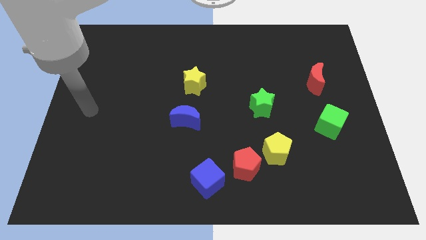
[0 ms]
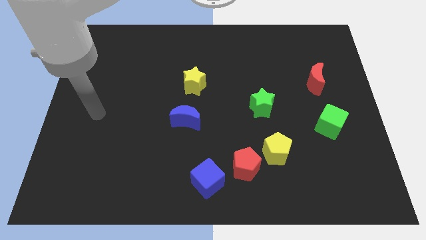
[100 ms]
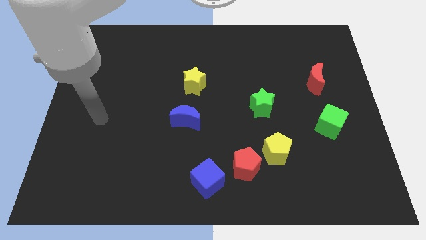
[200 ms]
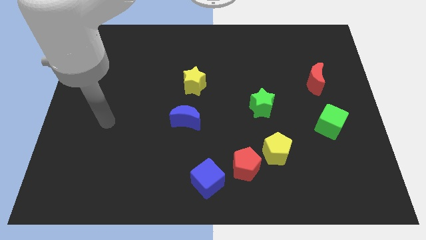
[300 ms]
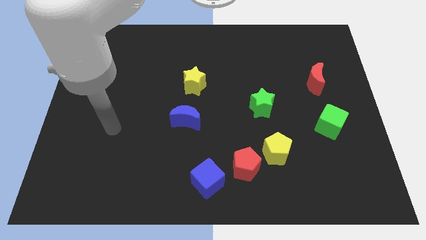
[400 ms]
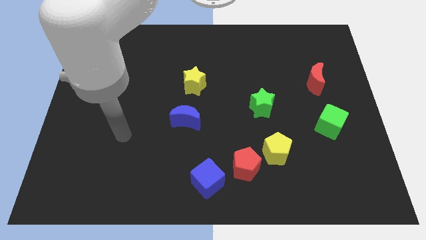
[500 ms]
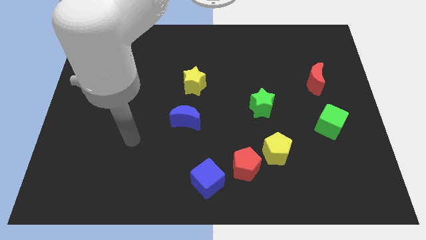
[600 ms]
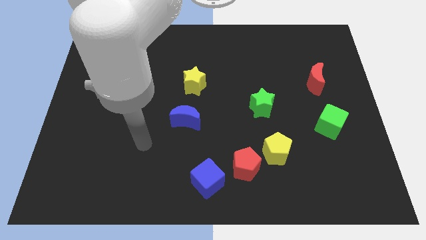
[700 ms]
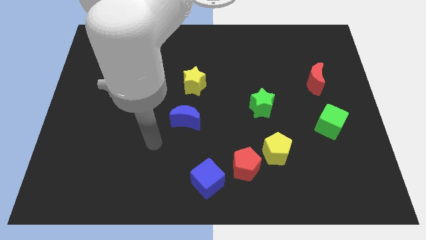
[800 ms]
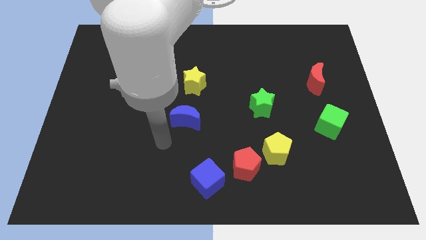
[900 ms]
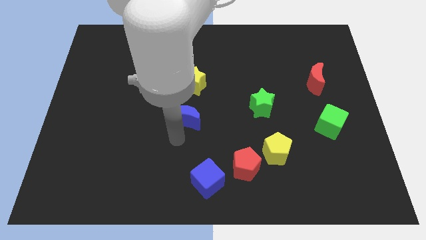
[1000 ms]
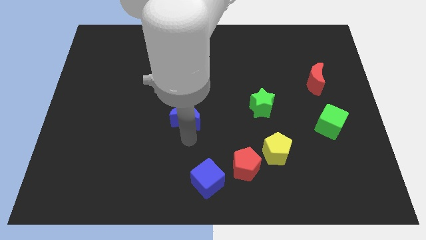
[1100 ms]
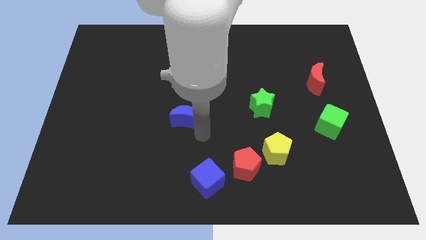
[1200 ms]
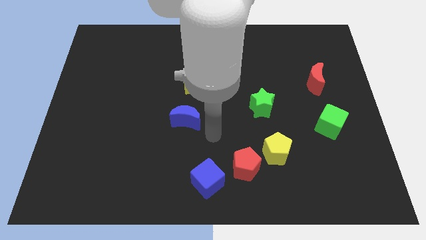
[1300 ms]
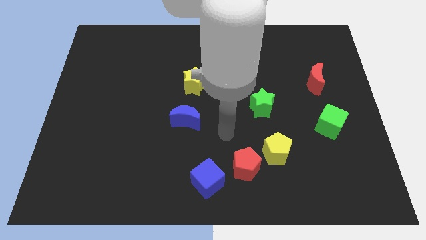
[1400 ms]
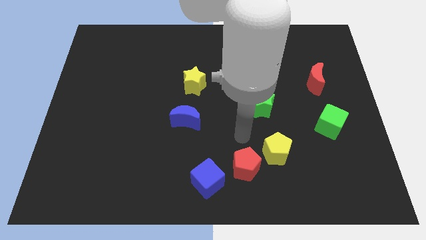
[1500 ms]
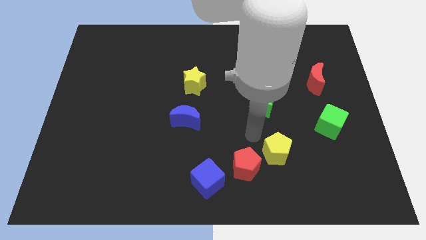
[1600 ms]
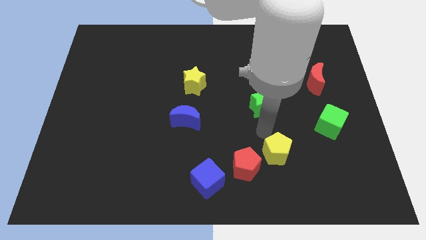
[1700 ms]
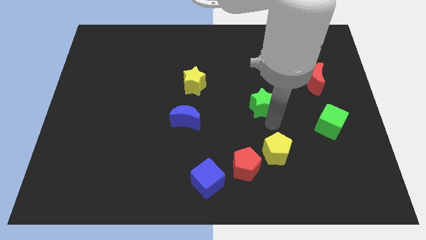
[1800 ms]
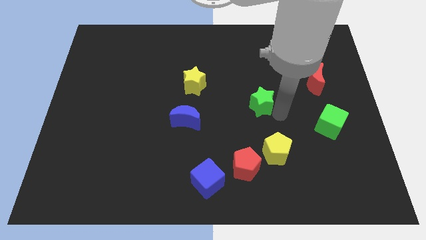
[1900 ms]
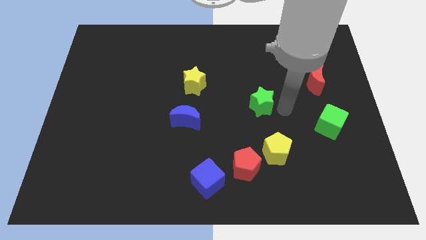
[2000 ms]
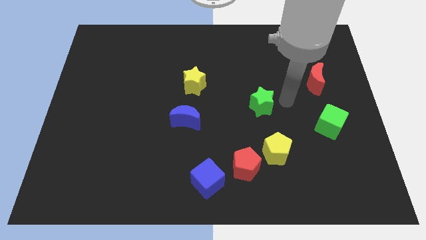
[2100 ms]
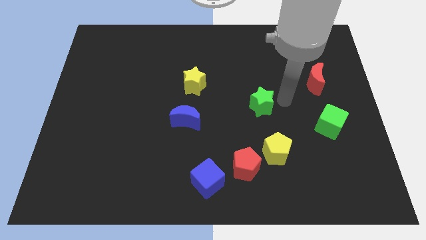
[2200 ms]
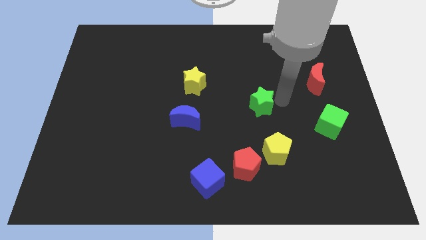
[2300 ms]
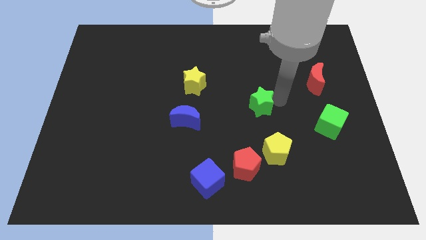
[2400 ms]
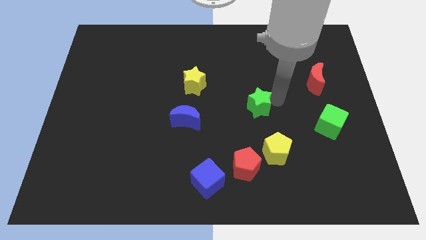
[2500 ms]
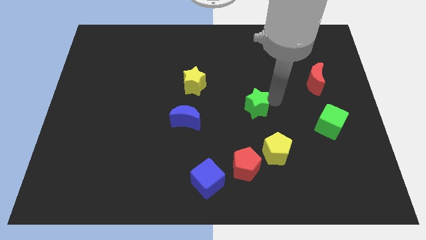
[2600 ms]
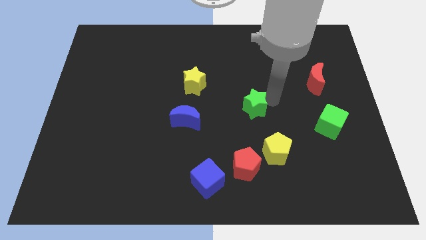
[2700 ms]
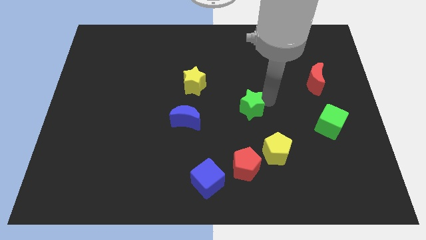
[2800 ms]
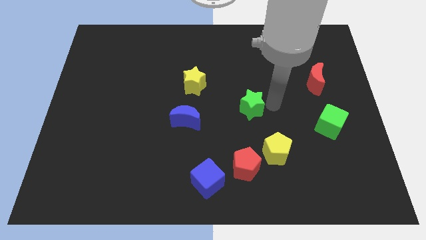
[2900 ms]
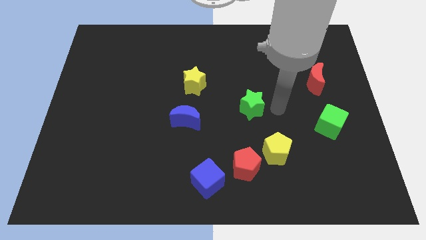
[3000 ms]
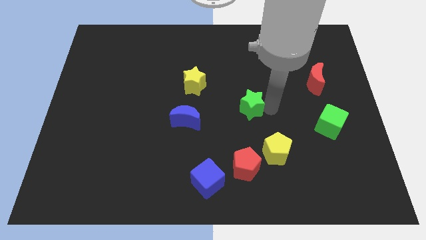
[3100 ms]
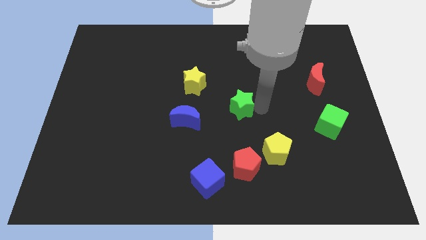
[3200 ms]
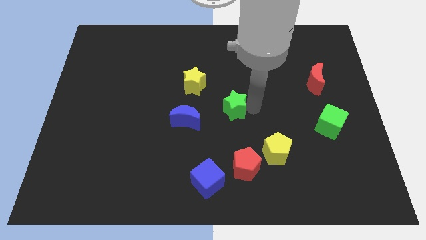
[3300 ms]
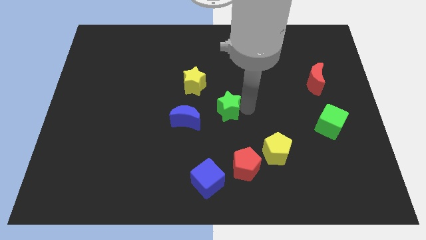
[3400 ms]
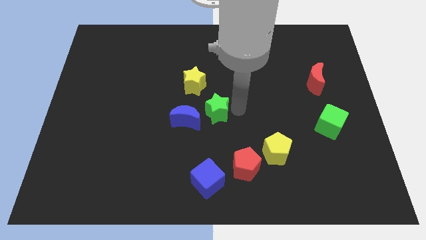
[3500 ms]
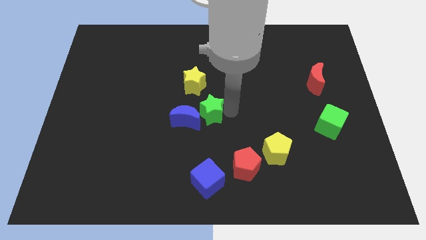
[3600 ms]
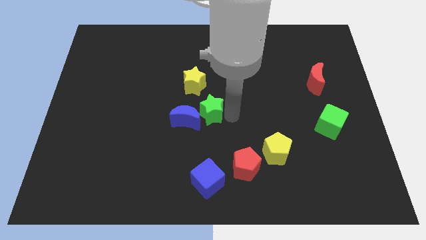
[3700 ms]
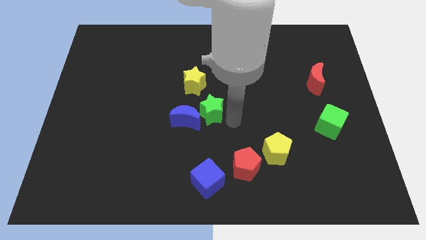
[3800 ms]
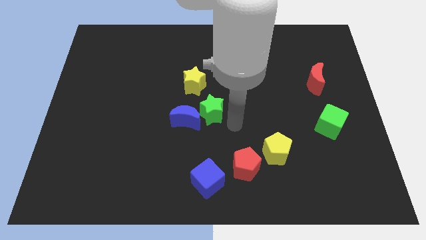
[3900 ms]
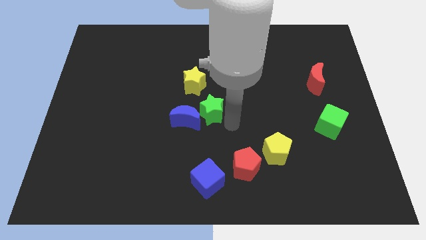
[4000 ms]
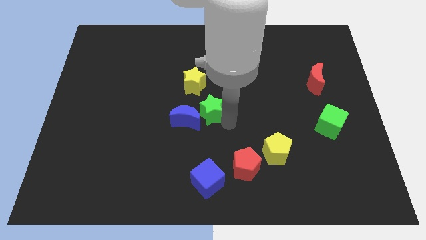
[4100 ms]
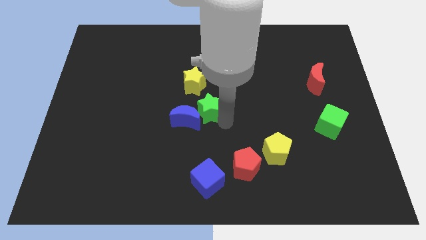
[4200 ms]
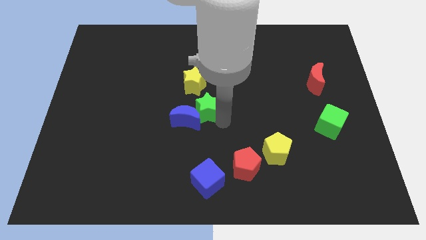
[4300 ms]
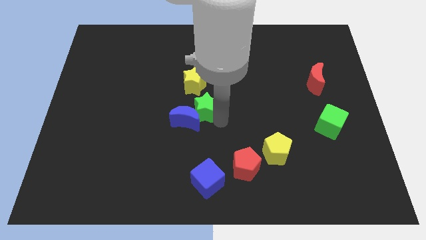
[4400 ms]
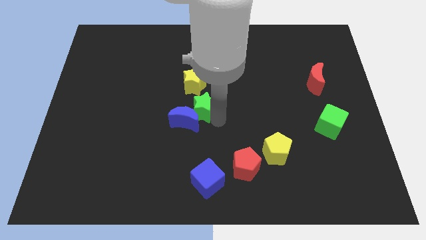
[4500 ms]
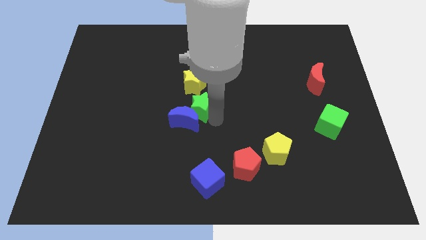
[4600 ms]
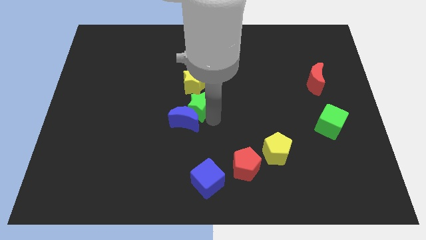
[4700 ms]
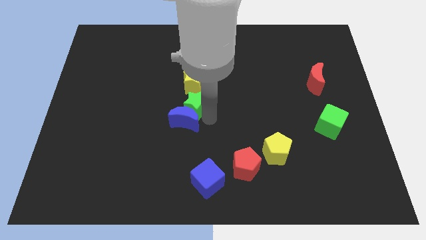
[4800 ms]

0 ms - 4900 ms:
push the green star to the top left of the blue moon

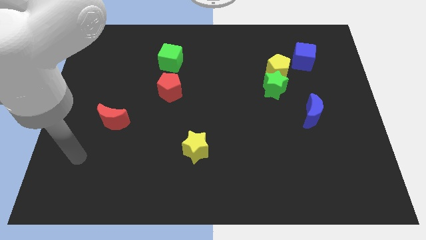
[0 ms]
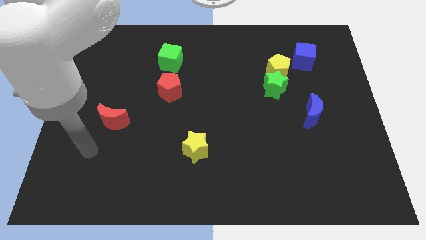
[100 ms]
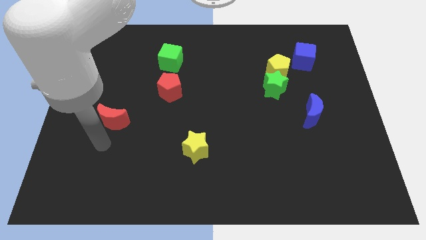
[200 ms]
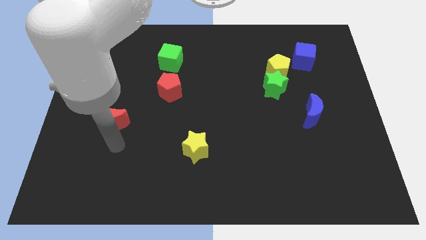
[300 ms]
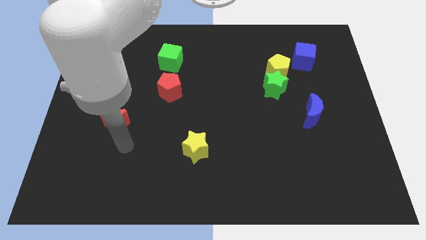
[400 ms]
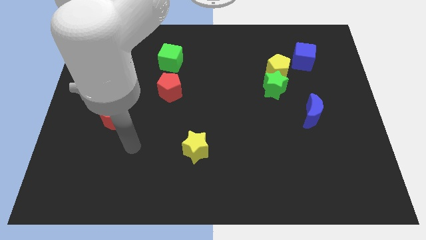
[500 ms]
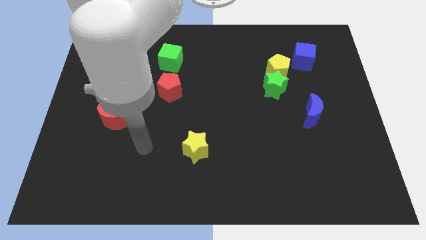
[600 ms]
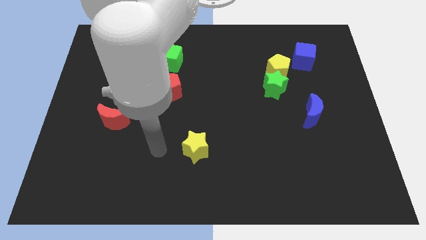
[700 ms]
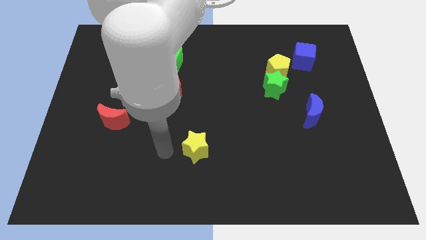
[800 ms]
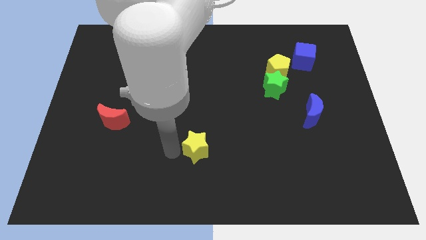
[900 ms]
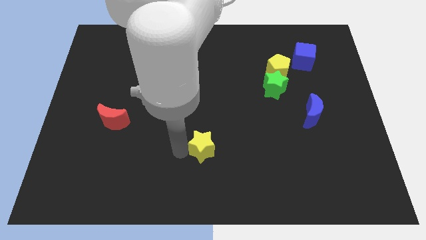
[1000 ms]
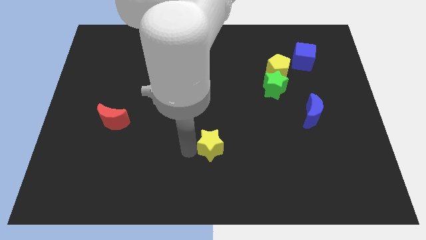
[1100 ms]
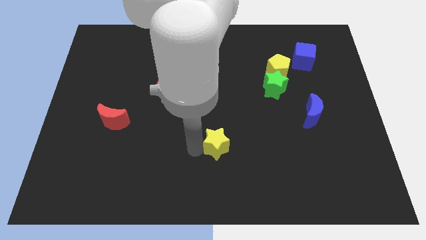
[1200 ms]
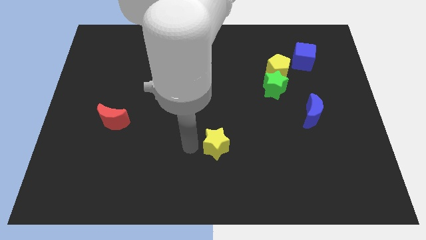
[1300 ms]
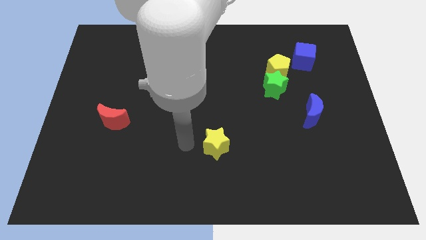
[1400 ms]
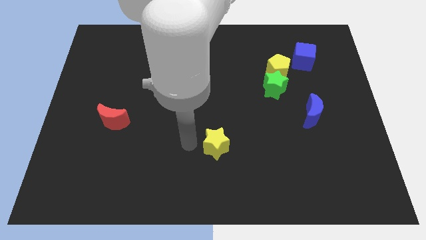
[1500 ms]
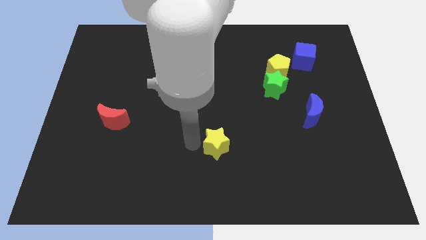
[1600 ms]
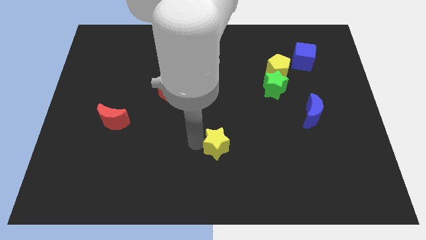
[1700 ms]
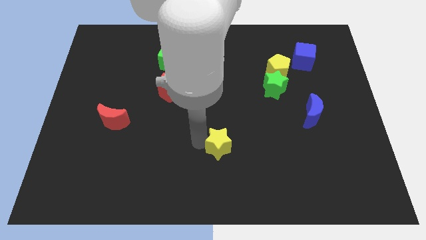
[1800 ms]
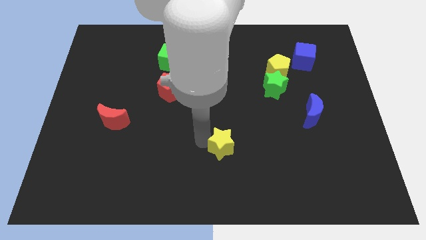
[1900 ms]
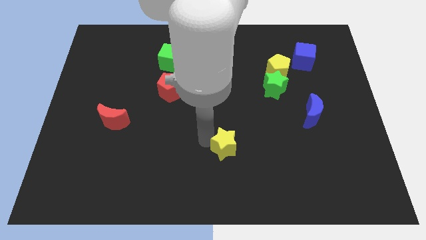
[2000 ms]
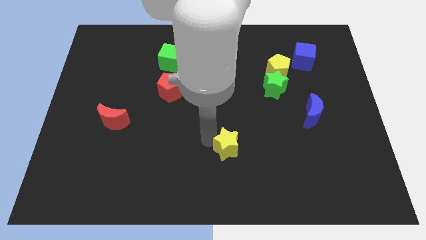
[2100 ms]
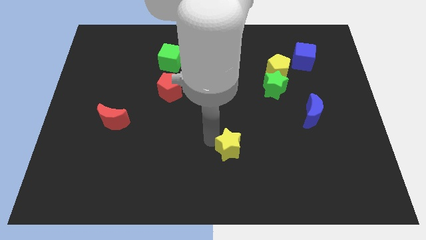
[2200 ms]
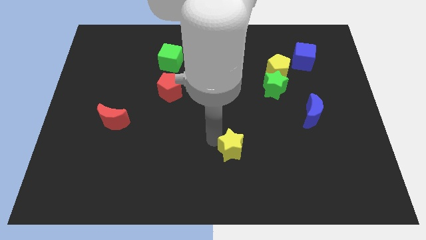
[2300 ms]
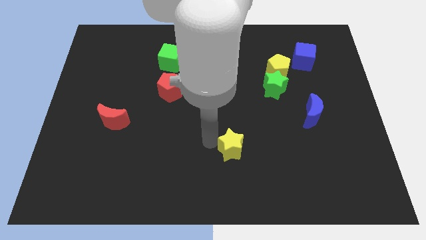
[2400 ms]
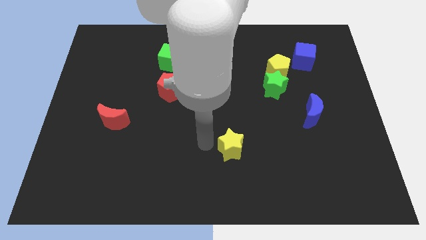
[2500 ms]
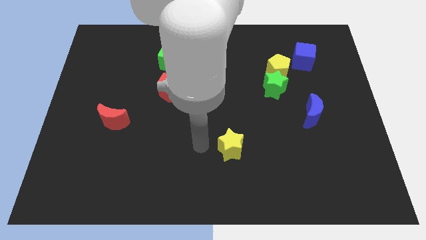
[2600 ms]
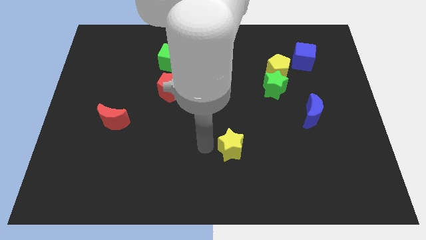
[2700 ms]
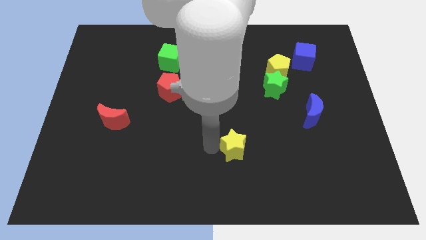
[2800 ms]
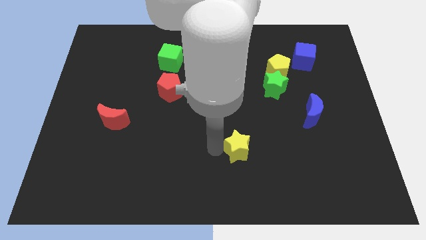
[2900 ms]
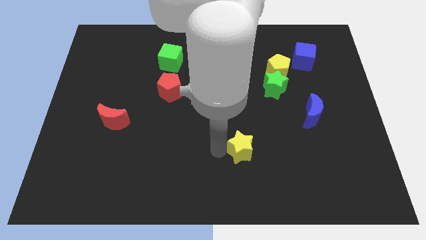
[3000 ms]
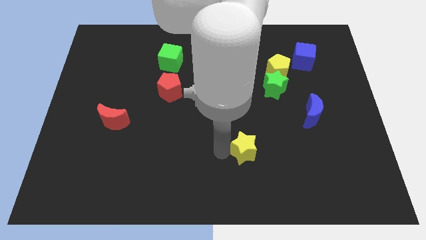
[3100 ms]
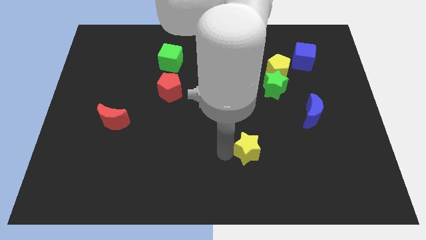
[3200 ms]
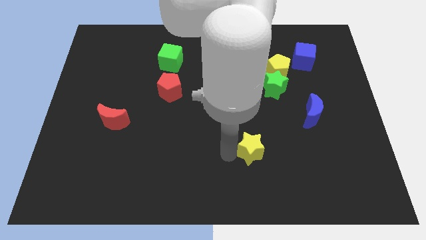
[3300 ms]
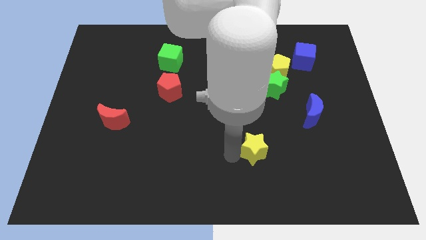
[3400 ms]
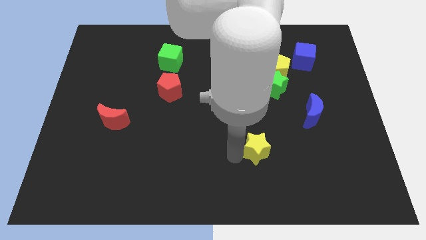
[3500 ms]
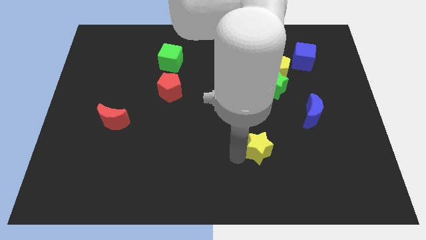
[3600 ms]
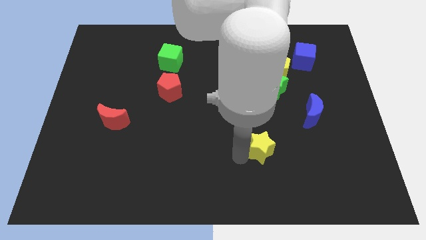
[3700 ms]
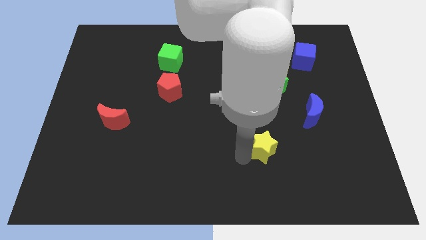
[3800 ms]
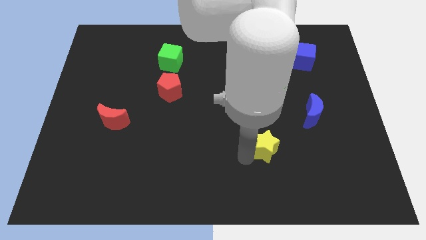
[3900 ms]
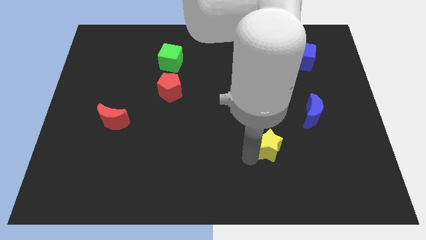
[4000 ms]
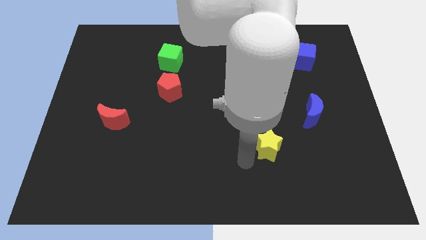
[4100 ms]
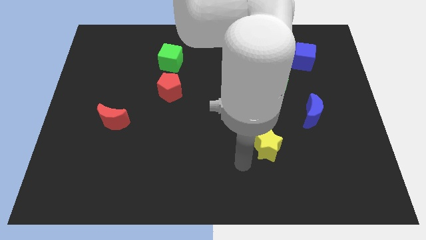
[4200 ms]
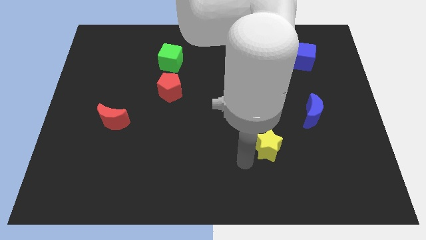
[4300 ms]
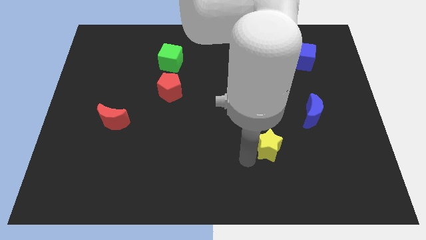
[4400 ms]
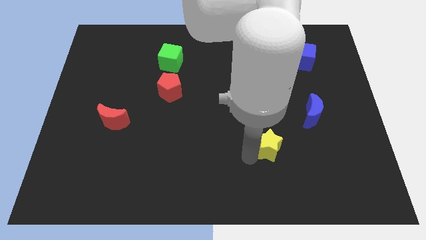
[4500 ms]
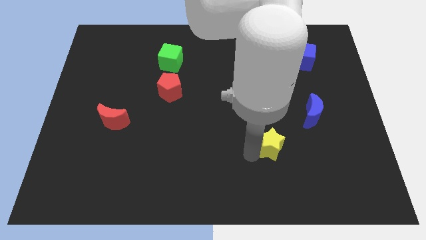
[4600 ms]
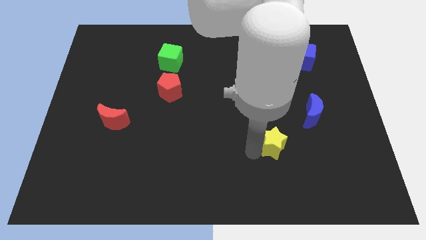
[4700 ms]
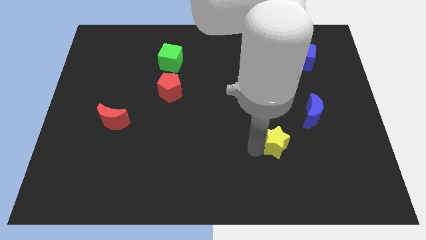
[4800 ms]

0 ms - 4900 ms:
move the yellow star to the bottom left side of the blue moon
